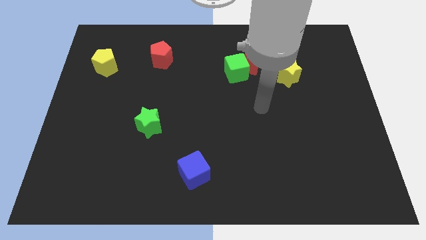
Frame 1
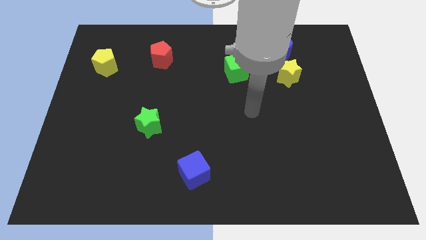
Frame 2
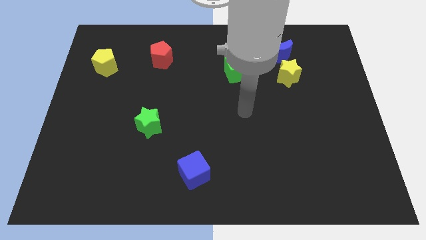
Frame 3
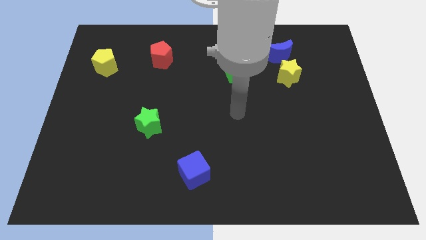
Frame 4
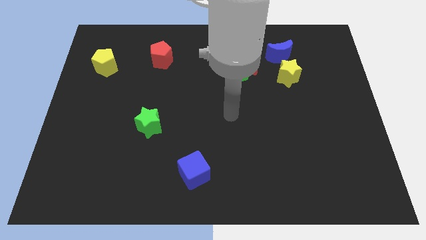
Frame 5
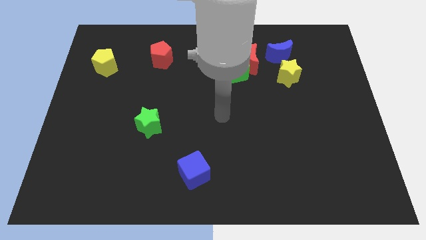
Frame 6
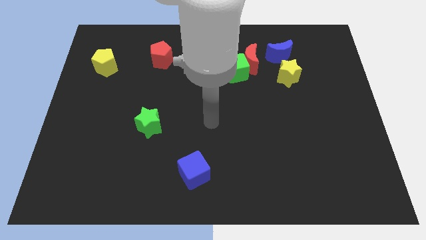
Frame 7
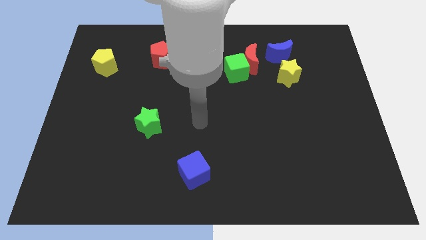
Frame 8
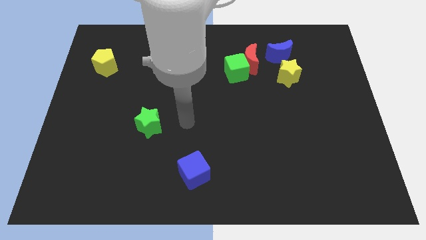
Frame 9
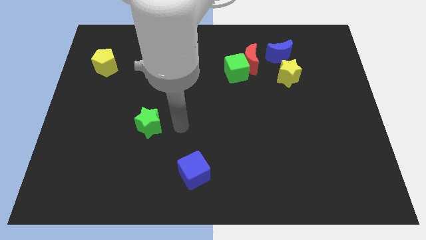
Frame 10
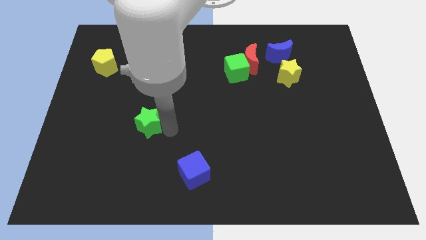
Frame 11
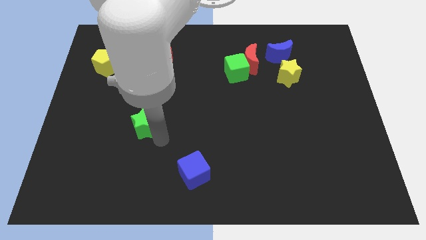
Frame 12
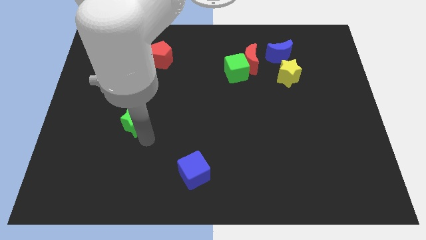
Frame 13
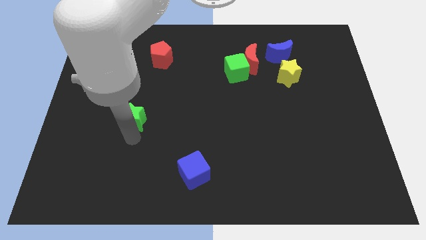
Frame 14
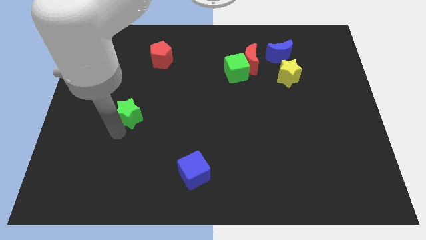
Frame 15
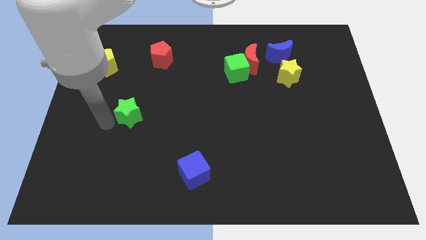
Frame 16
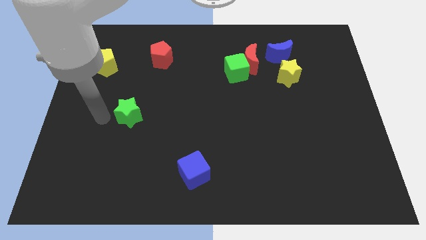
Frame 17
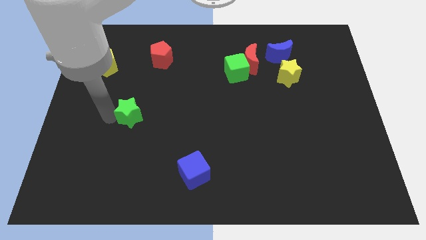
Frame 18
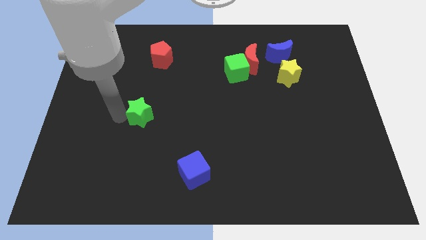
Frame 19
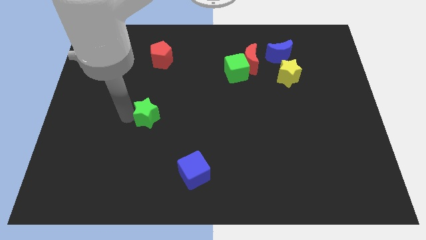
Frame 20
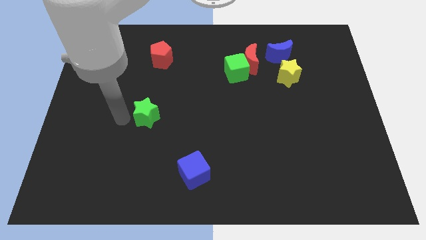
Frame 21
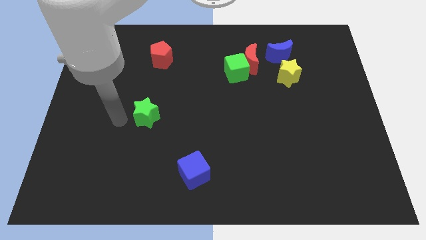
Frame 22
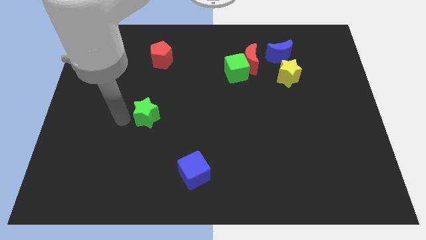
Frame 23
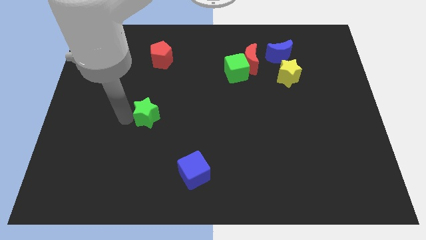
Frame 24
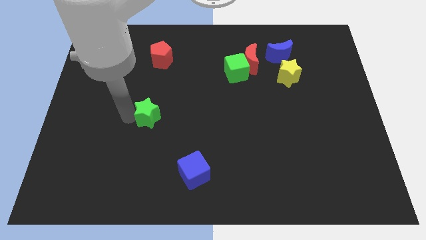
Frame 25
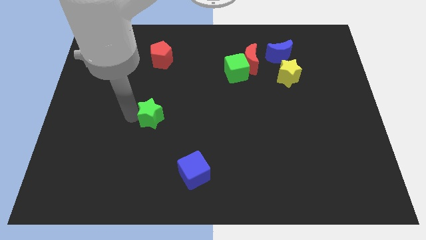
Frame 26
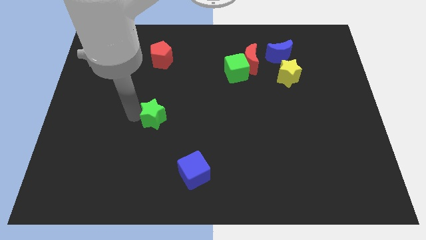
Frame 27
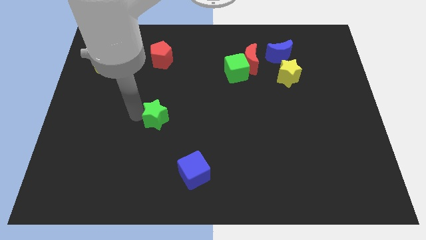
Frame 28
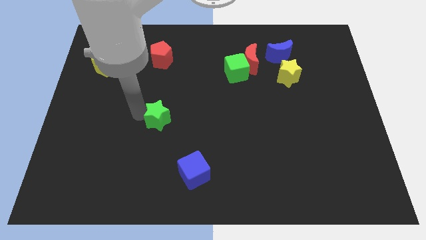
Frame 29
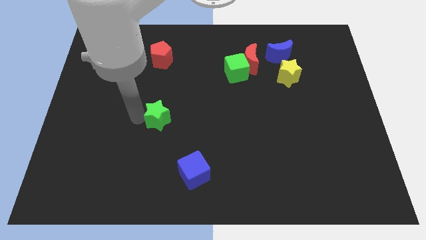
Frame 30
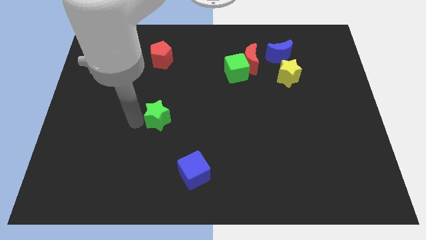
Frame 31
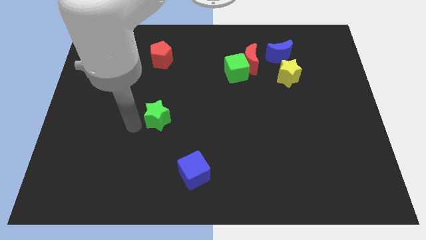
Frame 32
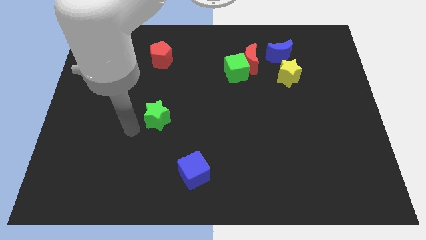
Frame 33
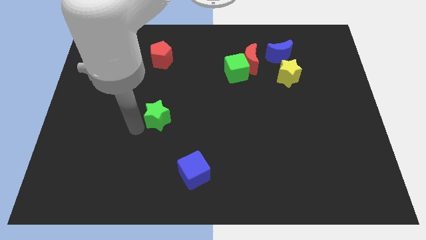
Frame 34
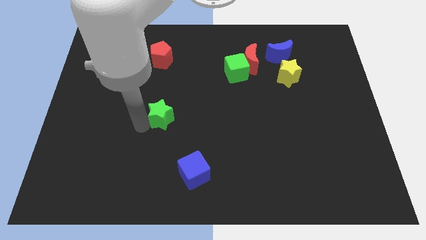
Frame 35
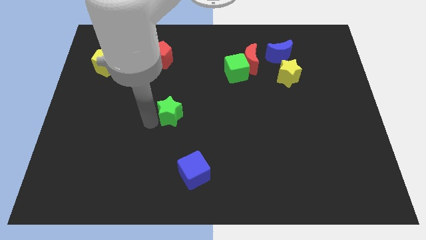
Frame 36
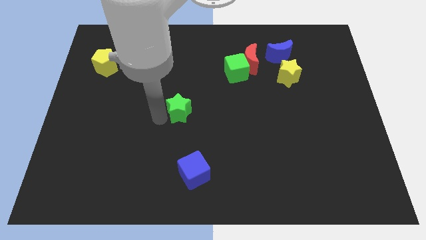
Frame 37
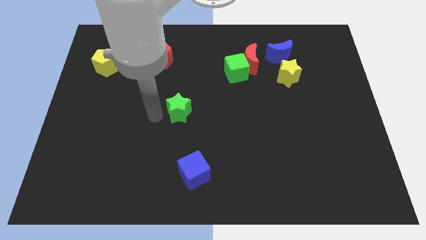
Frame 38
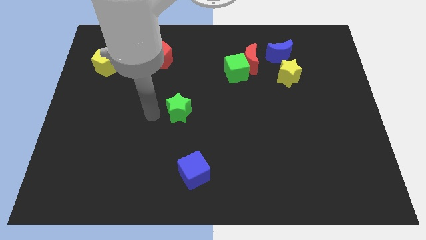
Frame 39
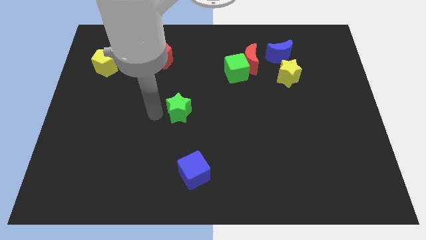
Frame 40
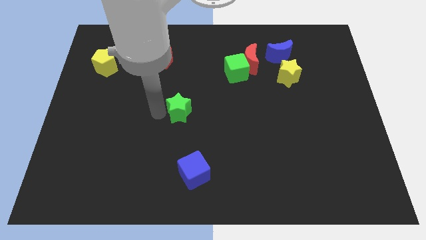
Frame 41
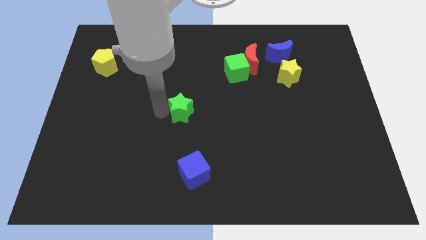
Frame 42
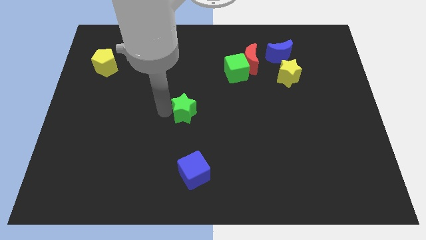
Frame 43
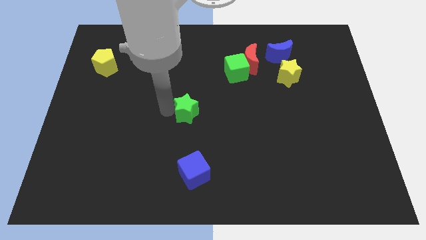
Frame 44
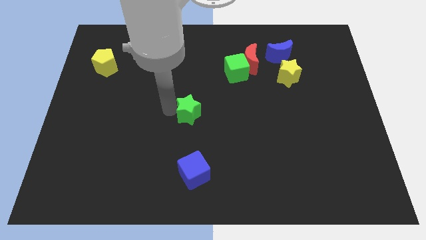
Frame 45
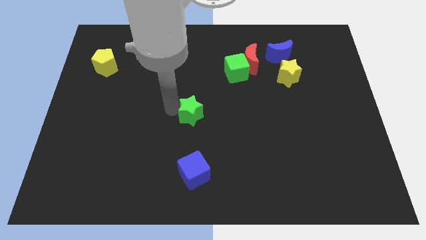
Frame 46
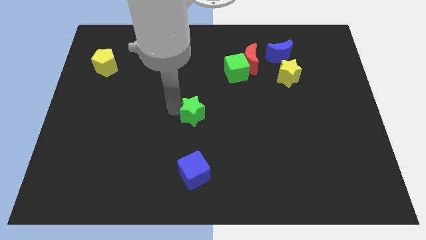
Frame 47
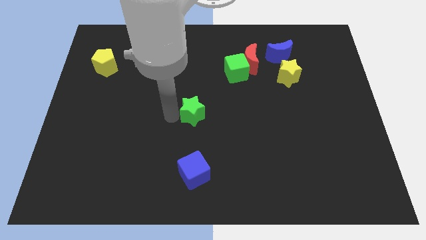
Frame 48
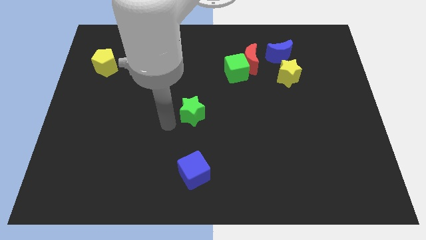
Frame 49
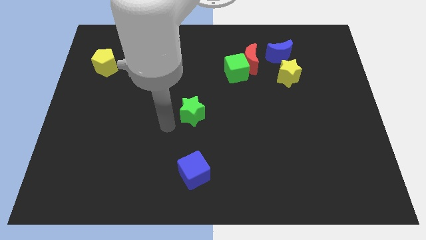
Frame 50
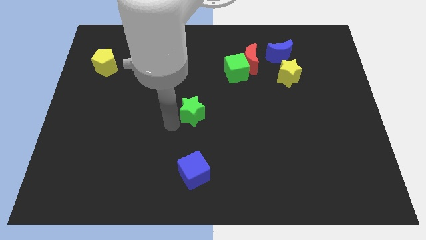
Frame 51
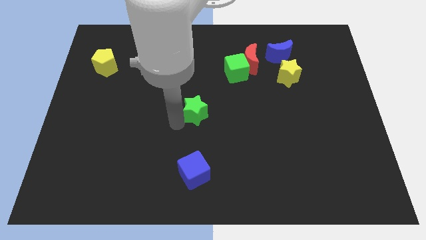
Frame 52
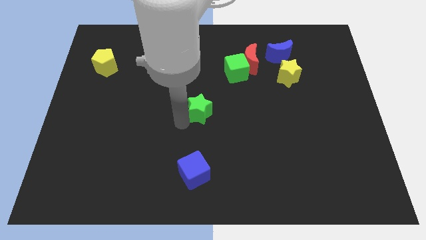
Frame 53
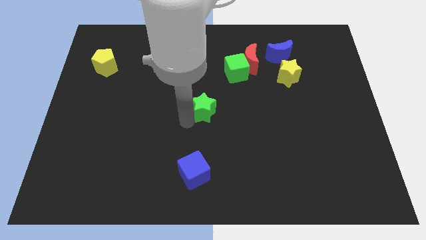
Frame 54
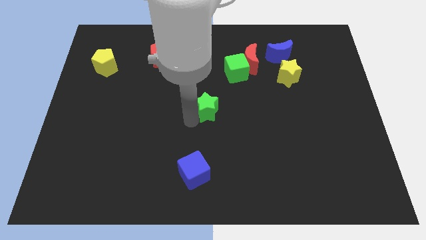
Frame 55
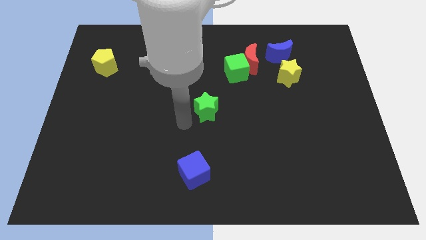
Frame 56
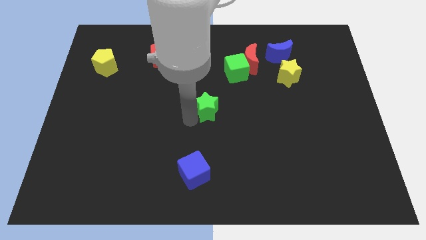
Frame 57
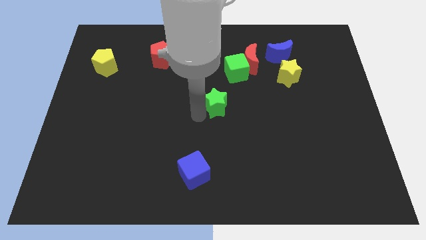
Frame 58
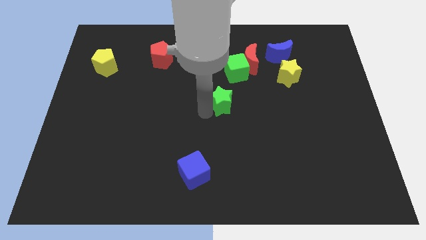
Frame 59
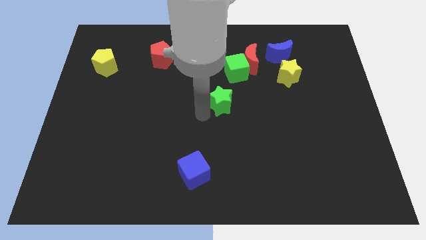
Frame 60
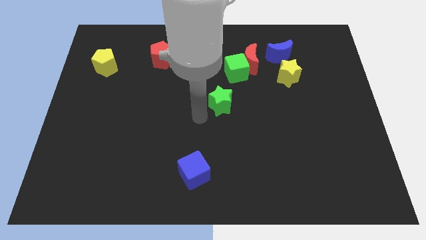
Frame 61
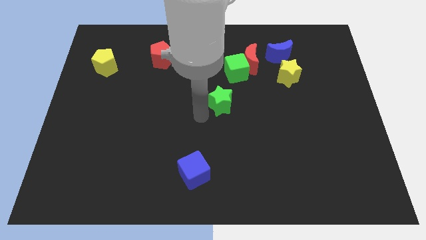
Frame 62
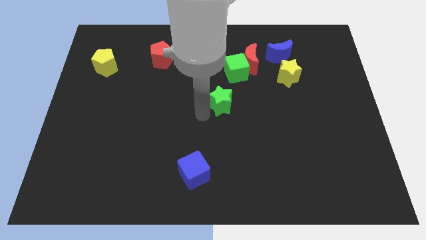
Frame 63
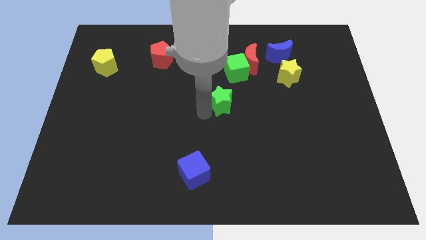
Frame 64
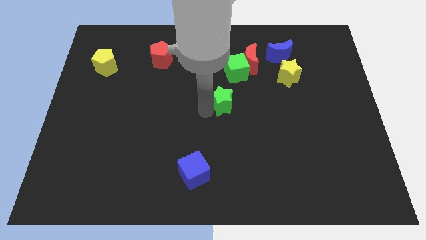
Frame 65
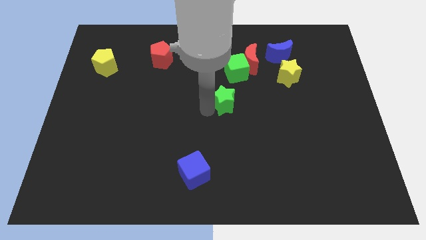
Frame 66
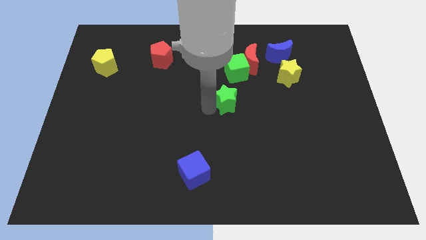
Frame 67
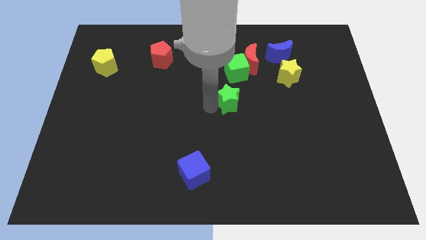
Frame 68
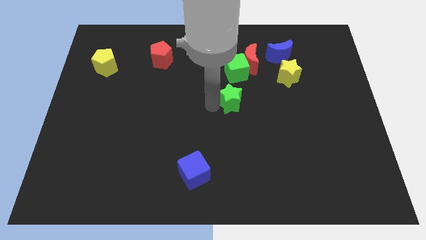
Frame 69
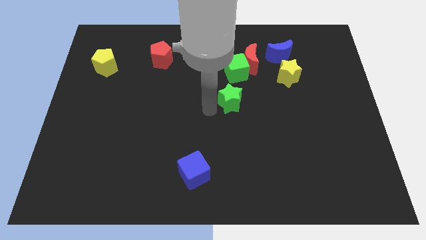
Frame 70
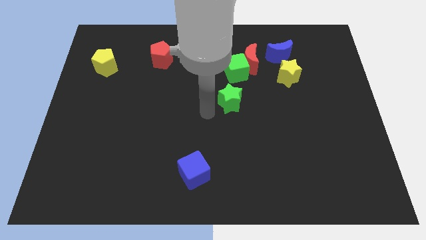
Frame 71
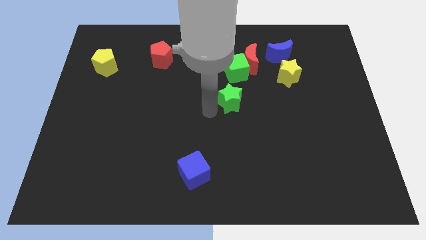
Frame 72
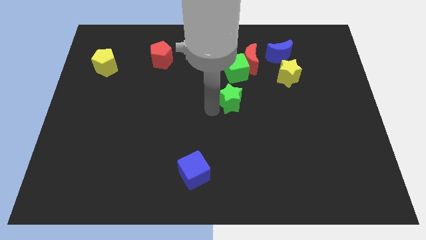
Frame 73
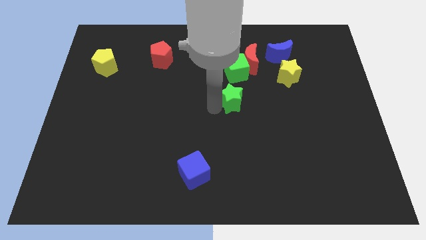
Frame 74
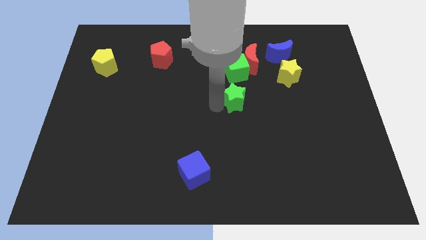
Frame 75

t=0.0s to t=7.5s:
push the green star to the bottom side of the red moon
